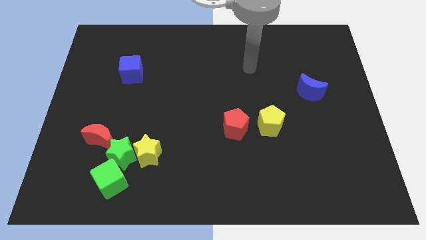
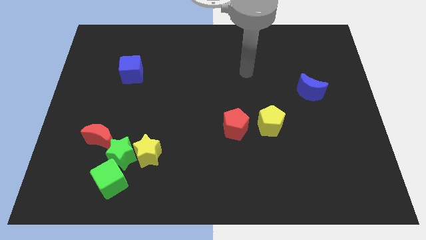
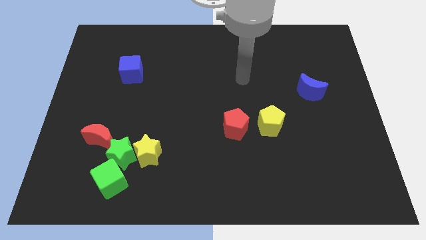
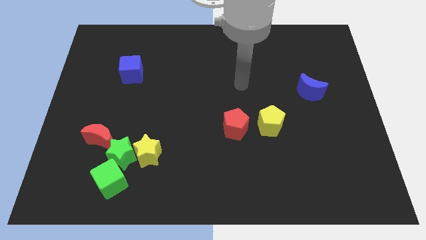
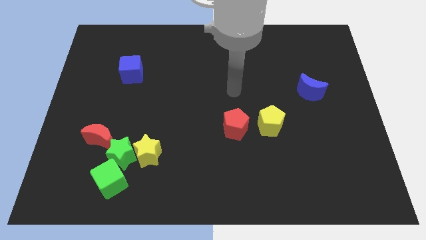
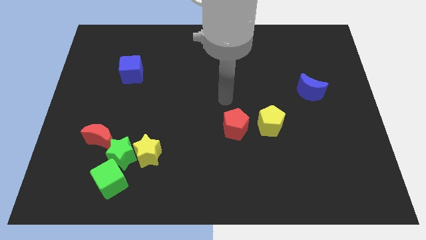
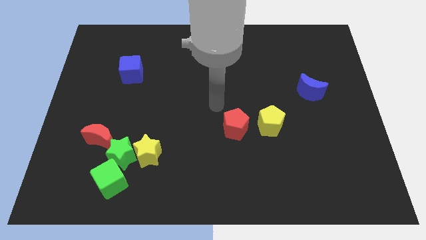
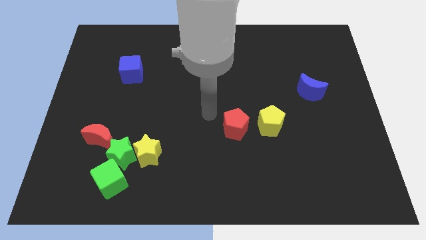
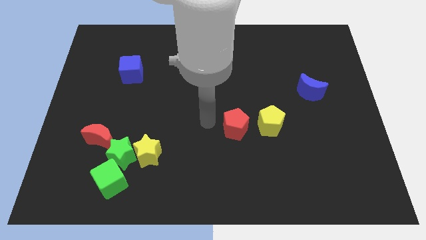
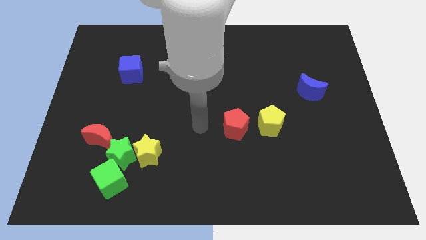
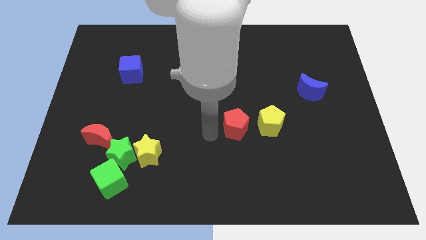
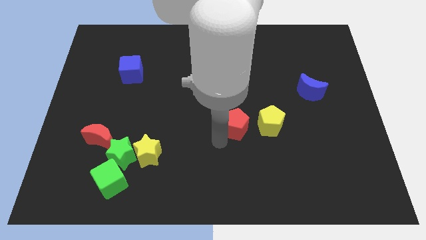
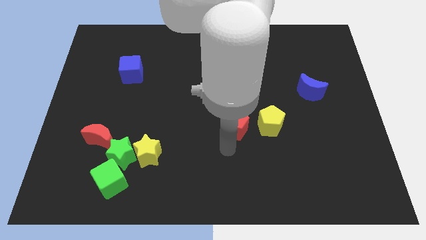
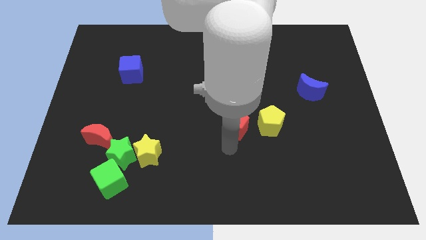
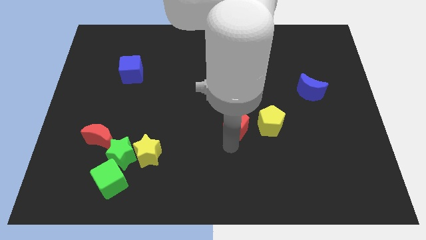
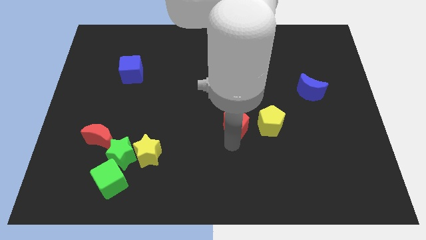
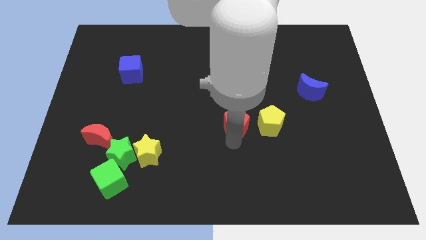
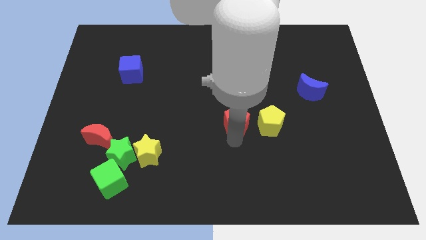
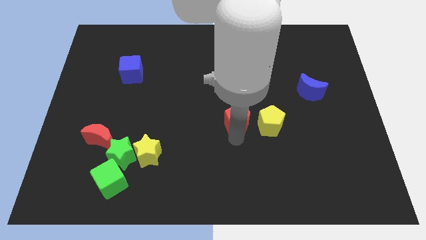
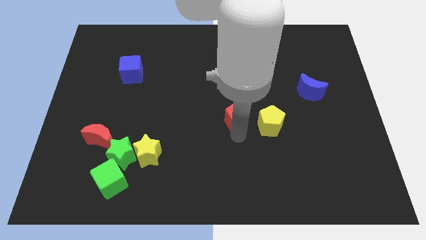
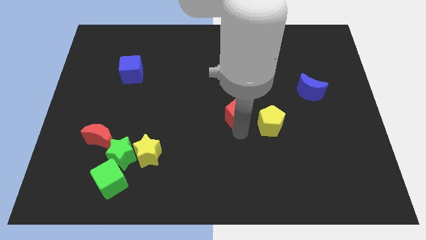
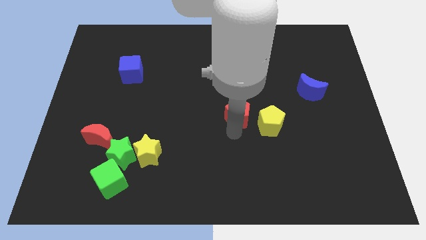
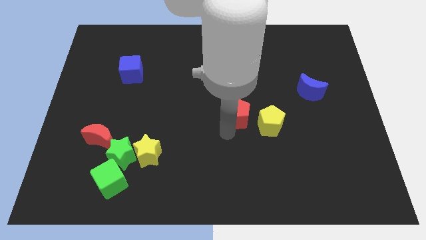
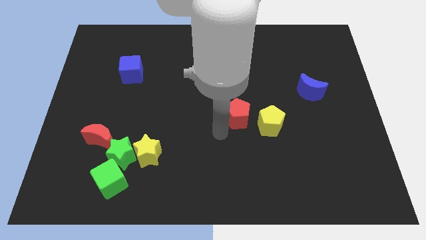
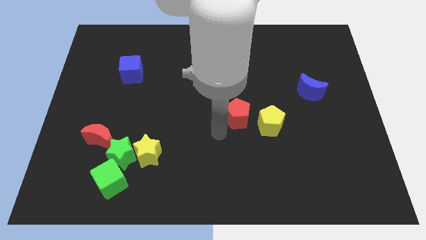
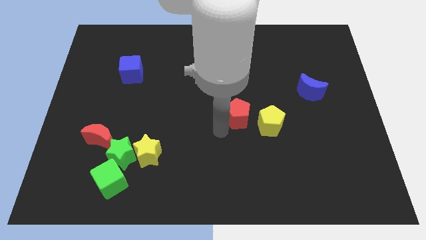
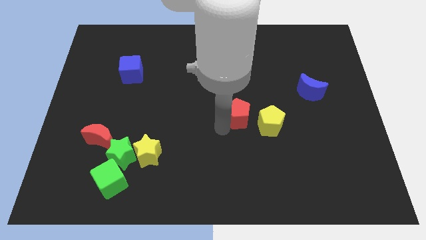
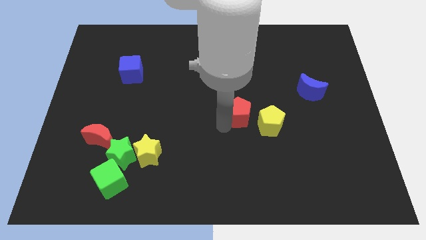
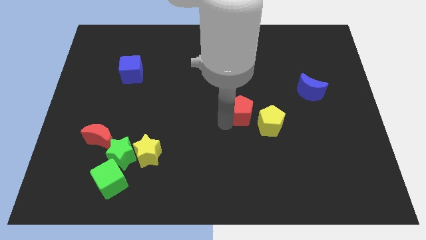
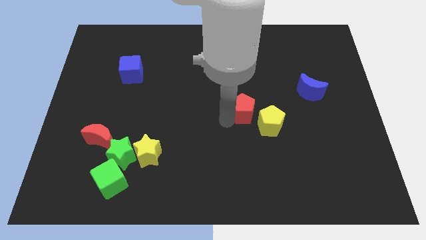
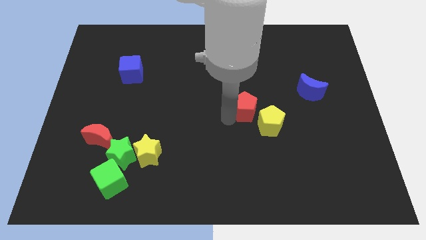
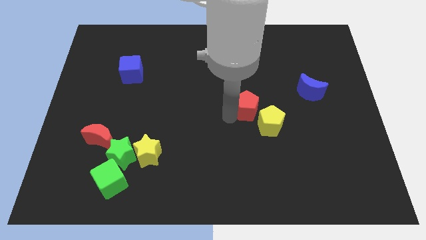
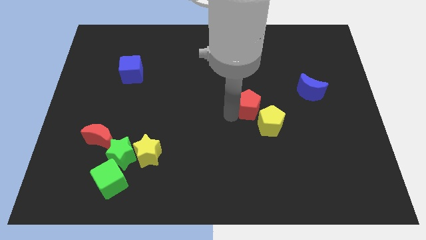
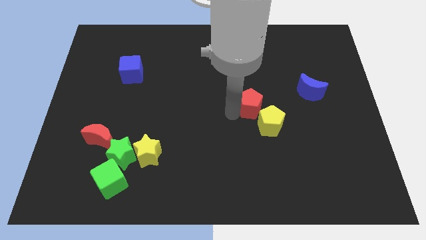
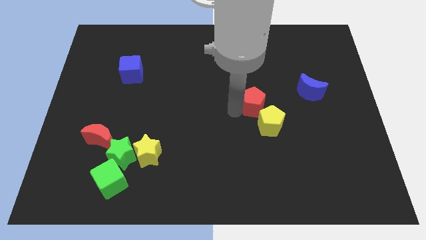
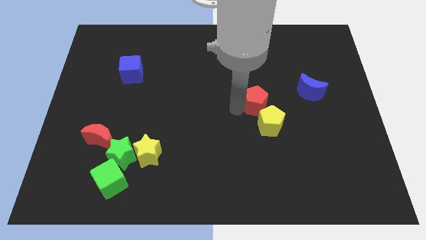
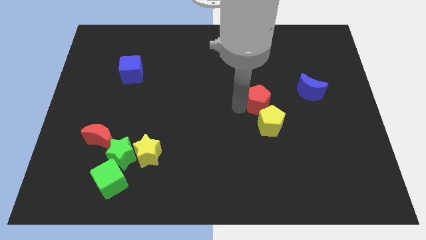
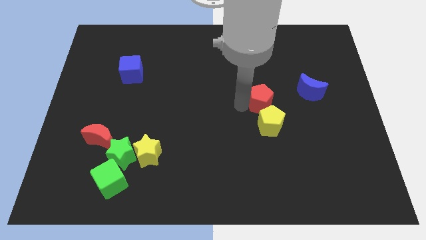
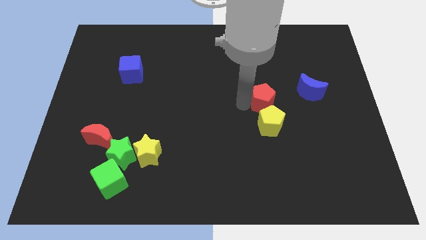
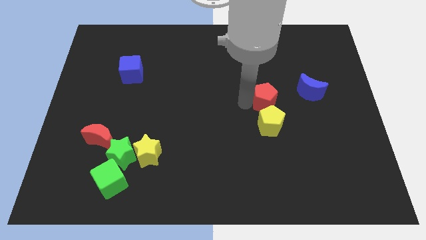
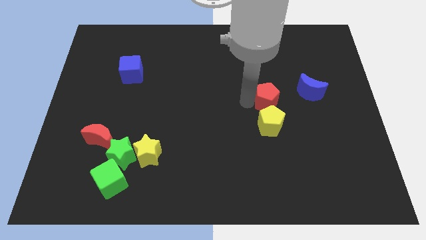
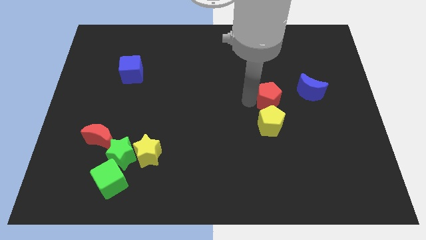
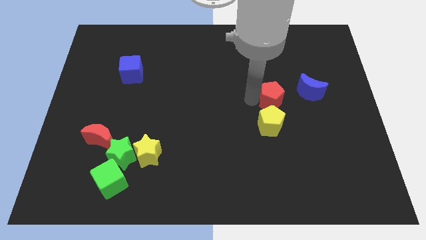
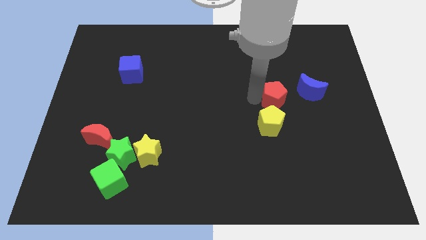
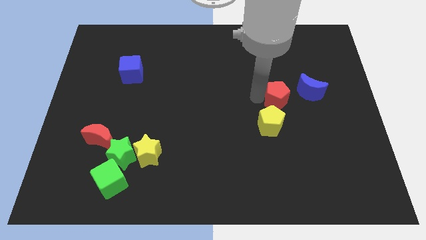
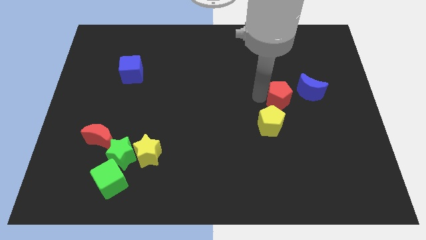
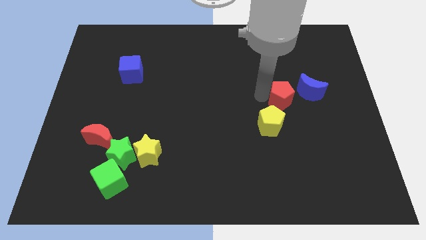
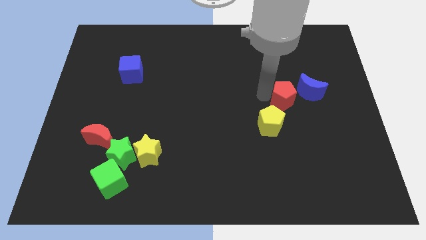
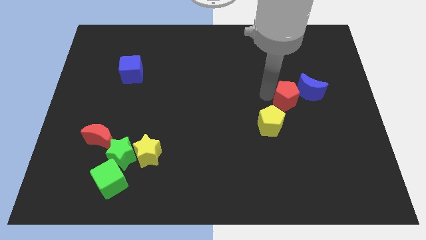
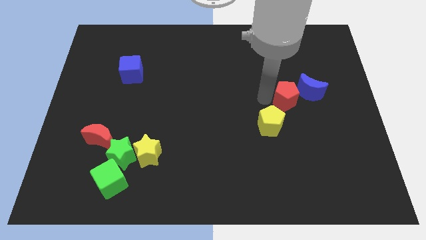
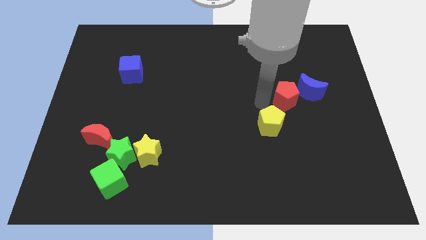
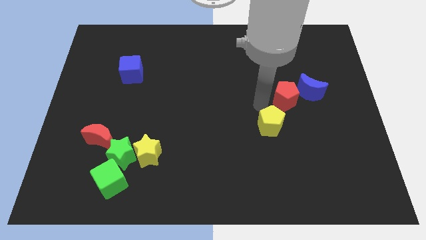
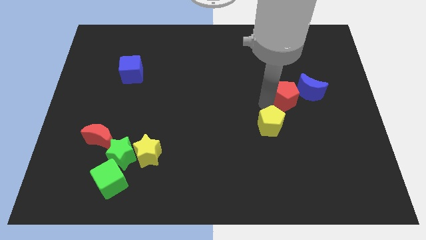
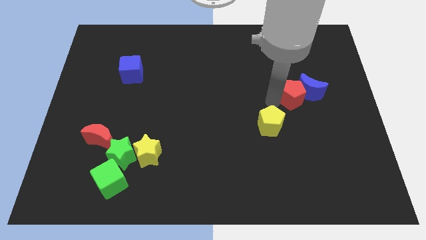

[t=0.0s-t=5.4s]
move the red pentagon next to the blue moon

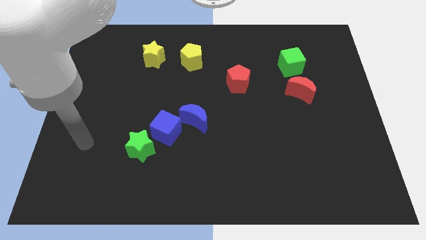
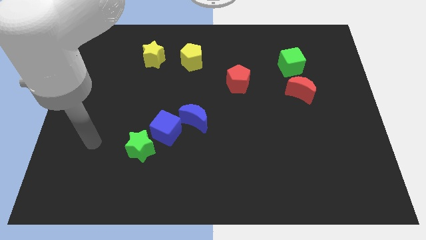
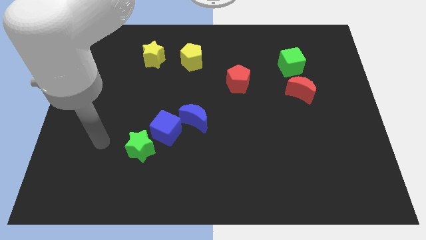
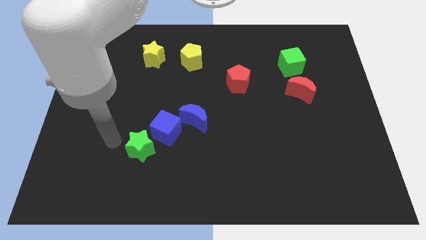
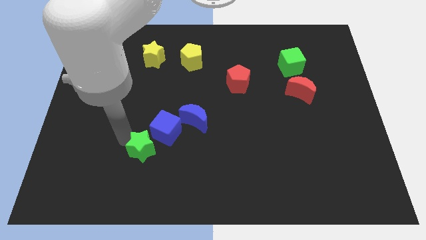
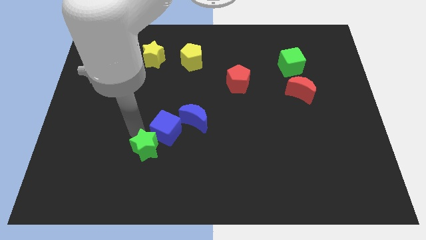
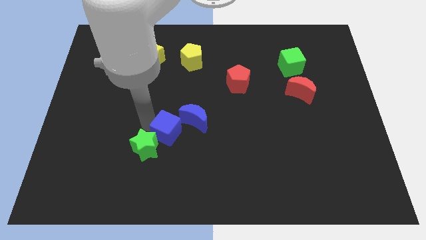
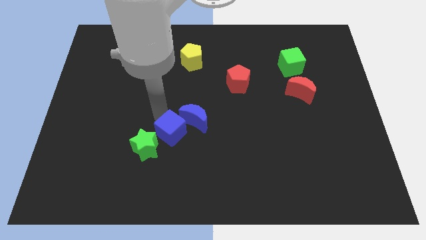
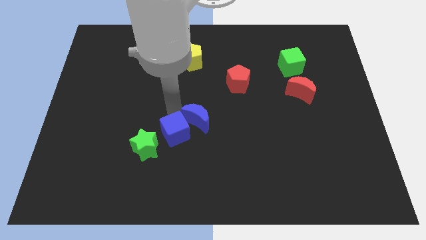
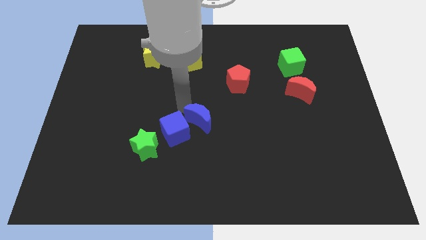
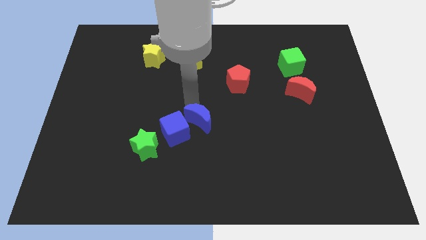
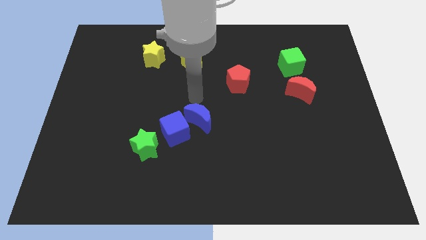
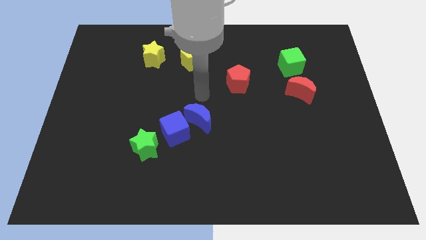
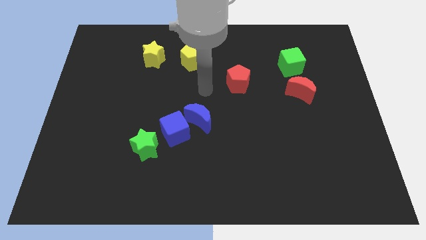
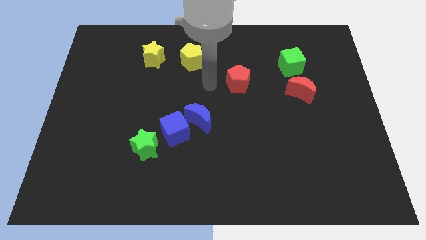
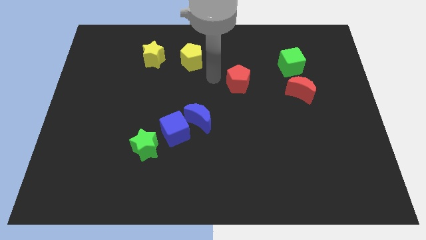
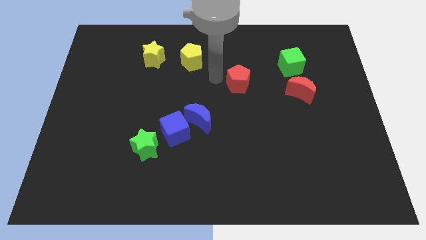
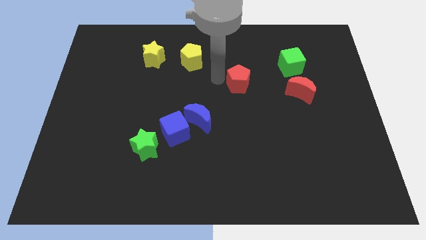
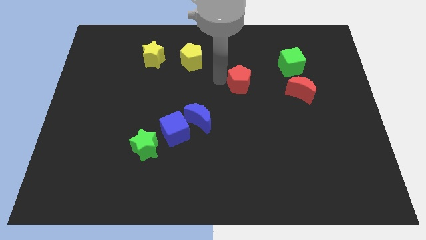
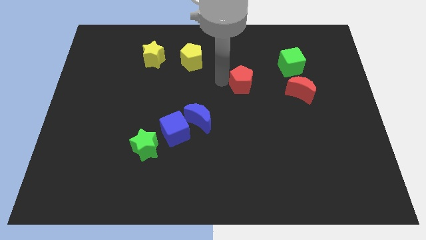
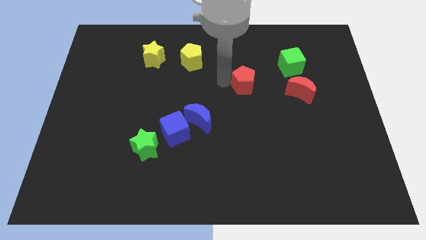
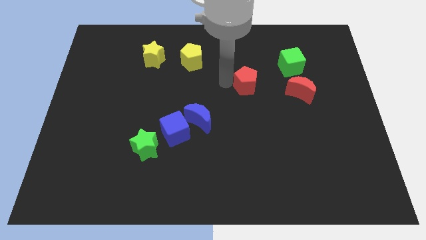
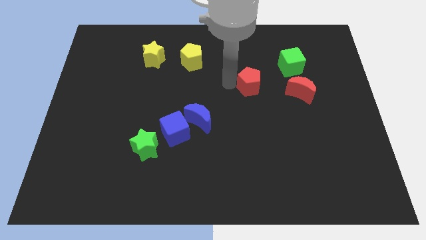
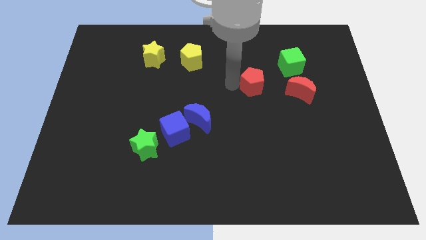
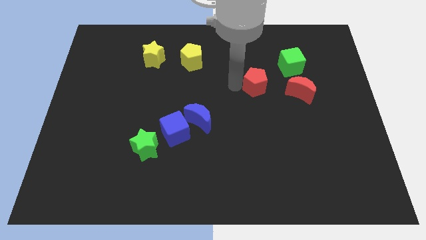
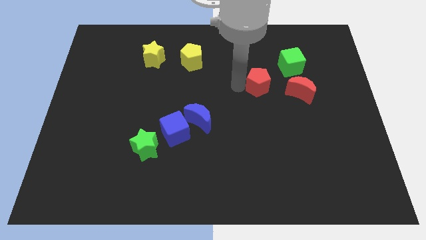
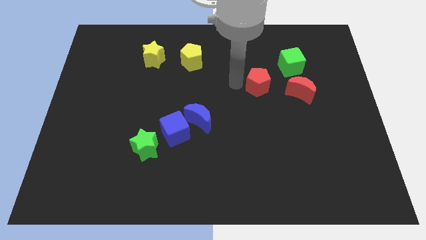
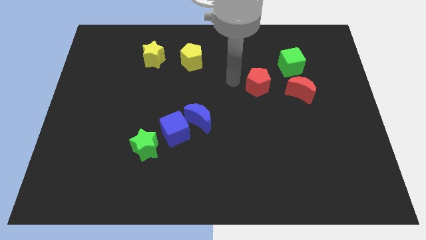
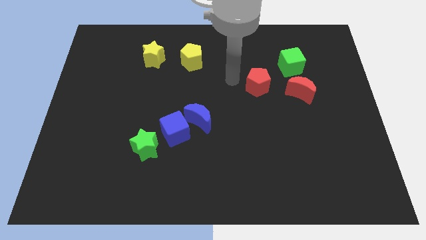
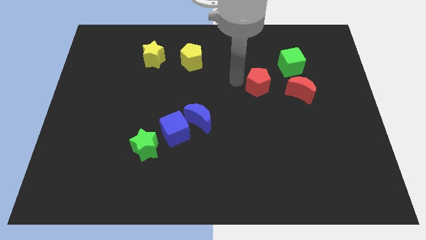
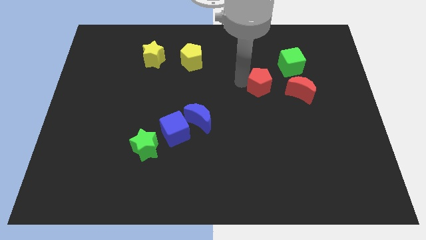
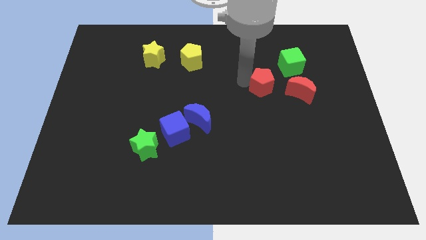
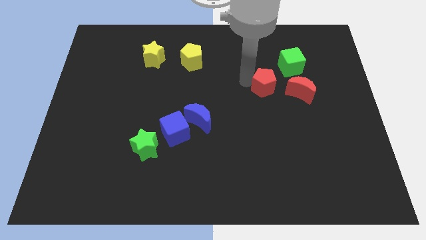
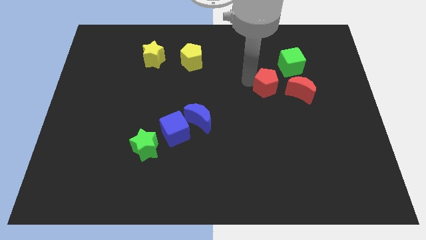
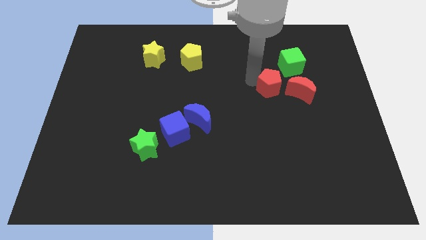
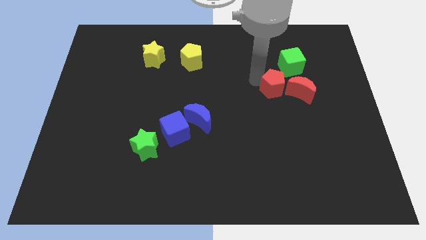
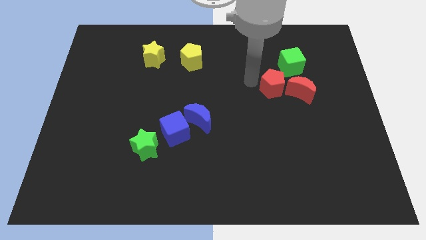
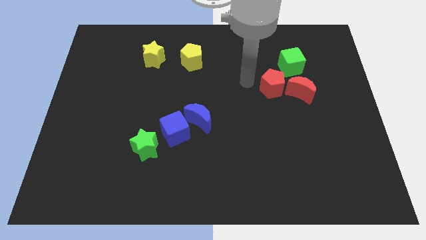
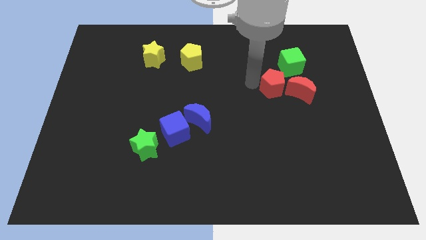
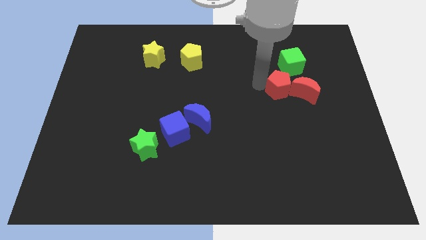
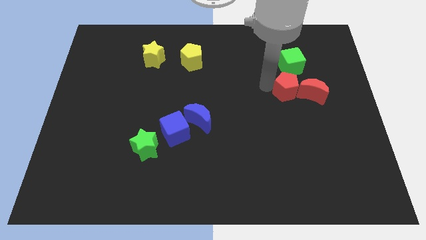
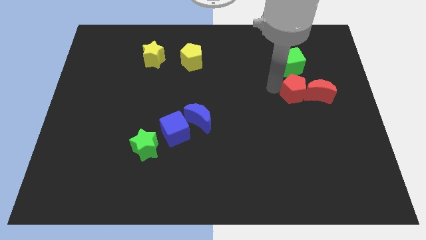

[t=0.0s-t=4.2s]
slide the red pentagon next to the red moon
